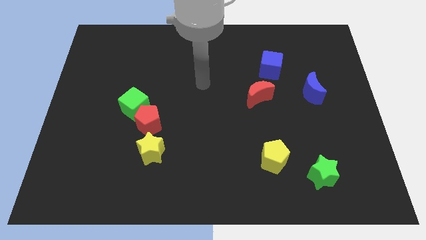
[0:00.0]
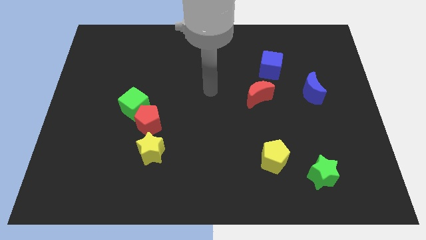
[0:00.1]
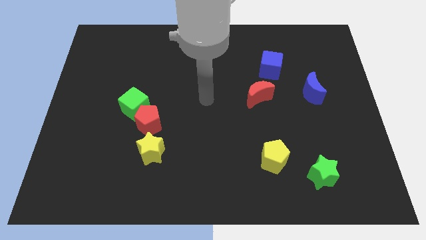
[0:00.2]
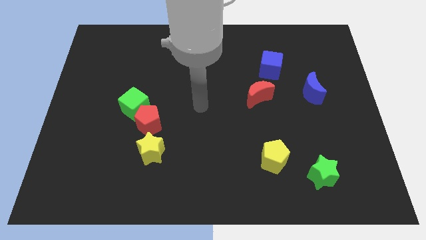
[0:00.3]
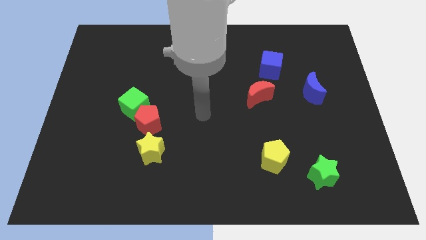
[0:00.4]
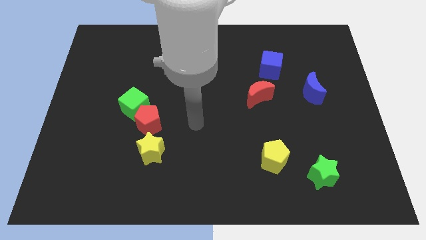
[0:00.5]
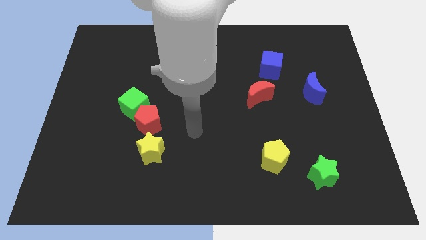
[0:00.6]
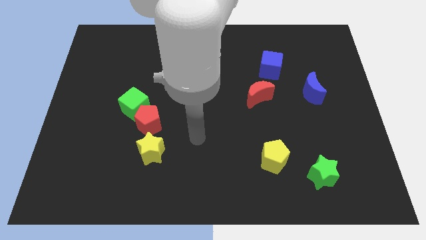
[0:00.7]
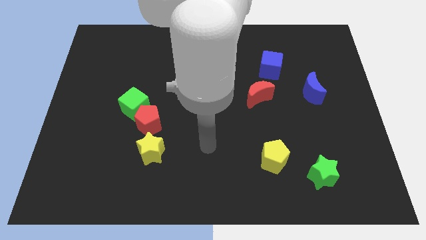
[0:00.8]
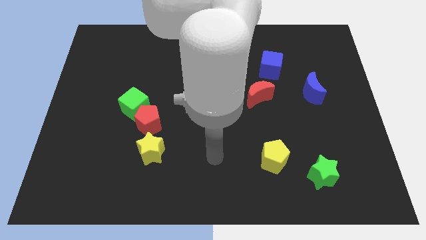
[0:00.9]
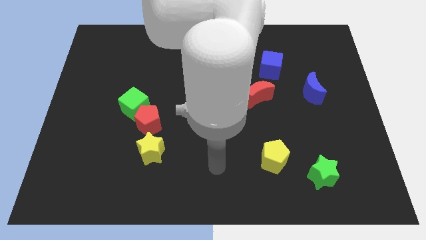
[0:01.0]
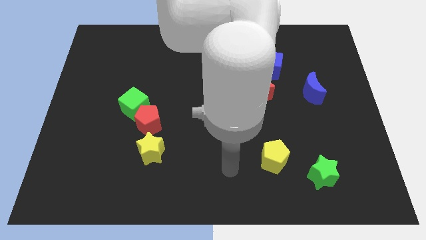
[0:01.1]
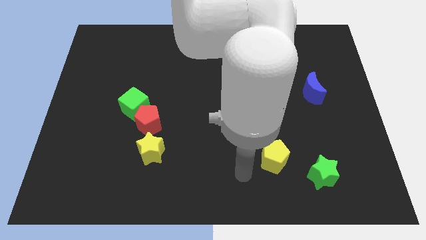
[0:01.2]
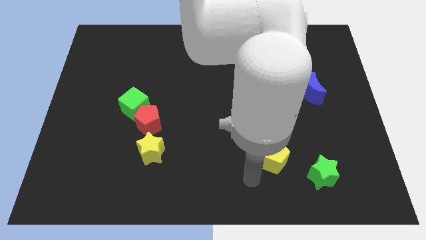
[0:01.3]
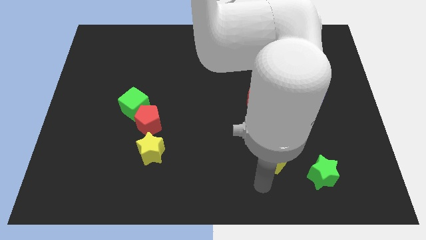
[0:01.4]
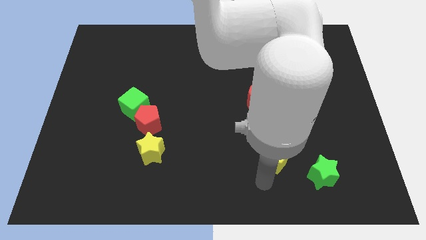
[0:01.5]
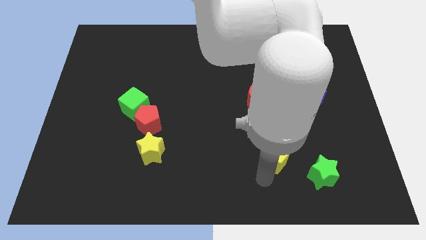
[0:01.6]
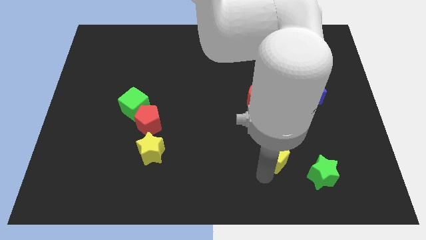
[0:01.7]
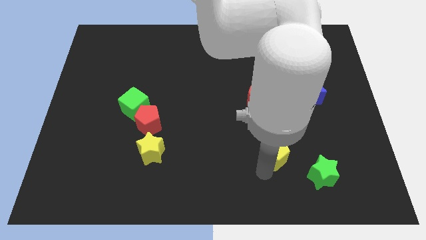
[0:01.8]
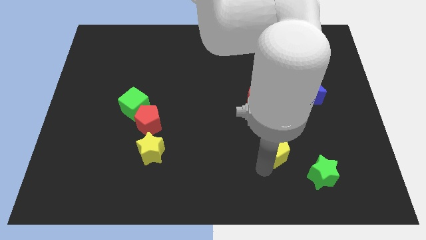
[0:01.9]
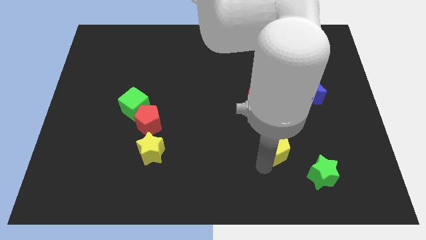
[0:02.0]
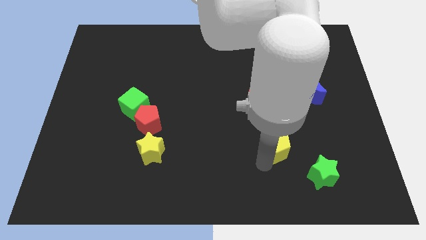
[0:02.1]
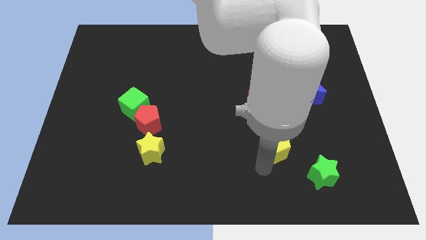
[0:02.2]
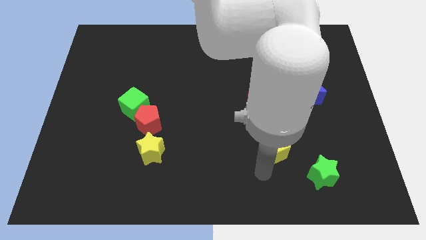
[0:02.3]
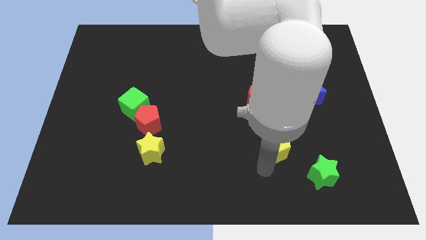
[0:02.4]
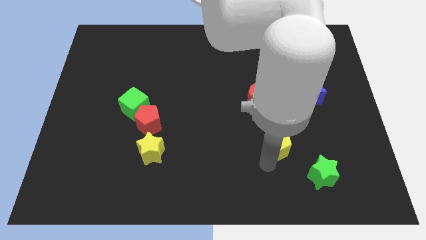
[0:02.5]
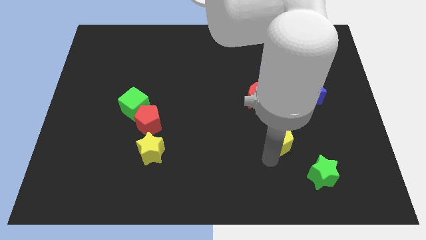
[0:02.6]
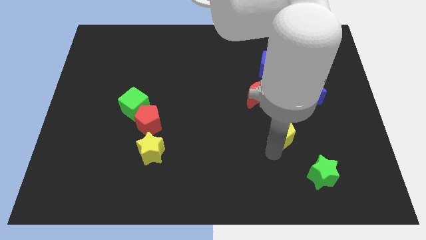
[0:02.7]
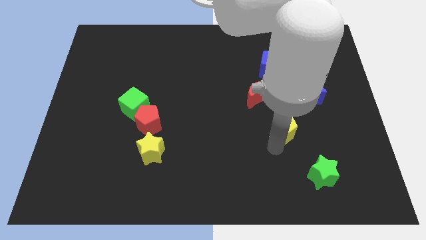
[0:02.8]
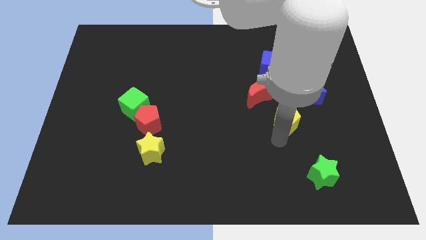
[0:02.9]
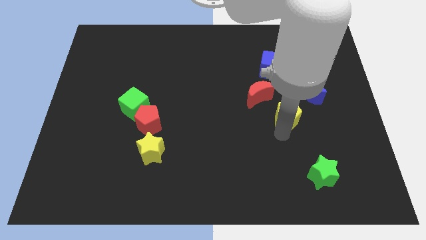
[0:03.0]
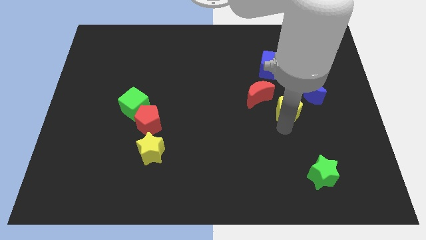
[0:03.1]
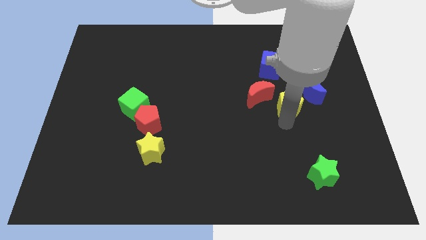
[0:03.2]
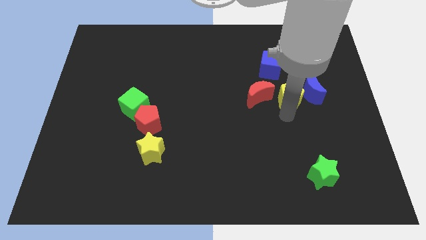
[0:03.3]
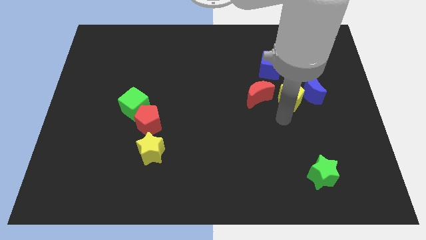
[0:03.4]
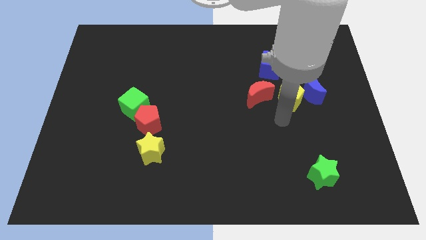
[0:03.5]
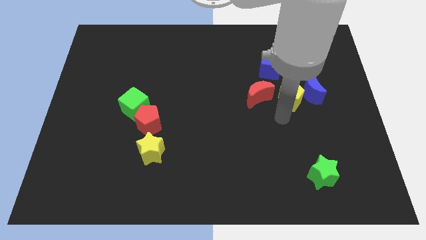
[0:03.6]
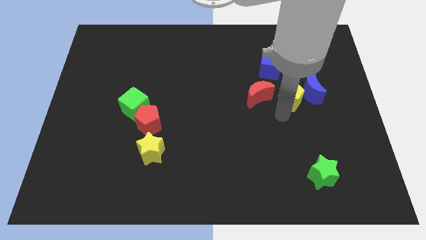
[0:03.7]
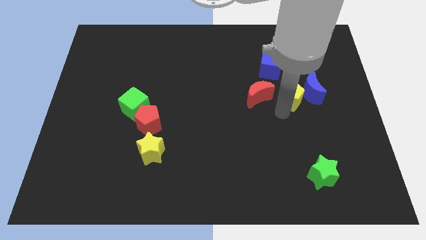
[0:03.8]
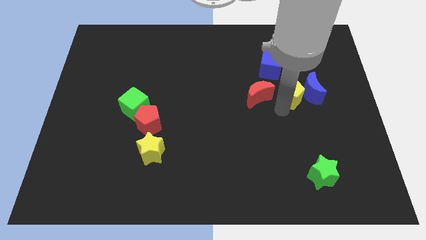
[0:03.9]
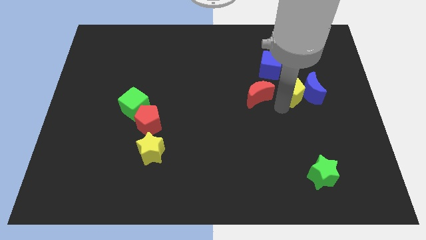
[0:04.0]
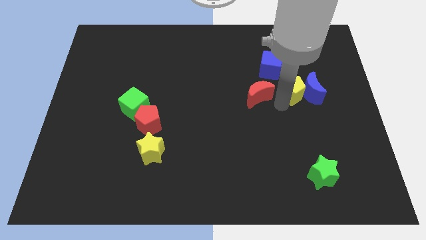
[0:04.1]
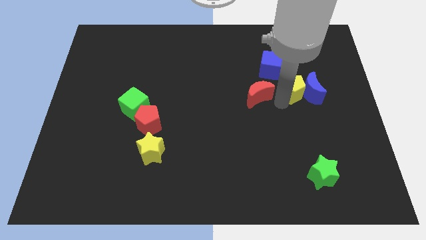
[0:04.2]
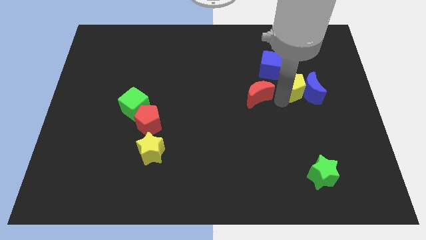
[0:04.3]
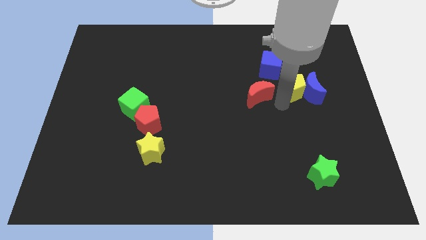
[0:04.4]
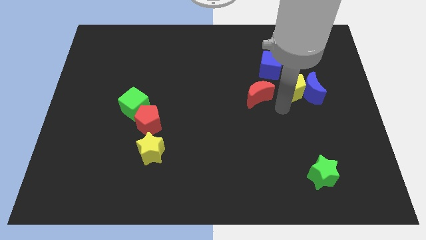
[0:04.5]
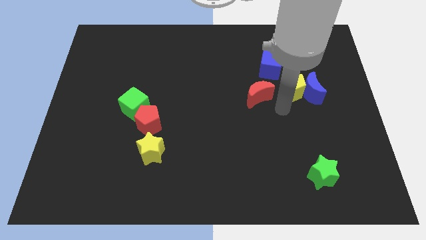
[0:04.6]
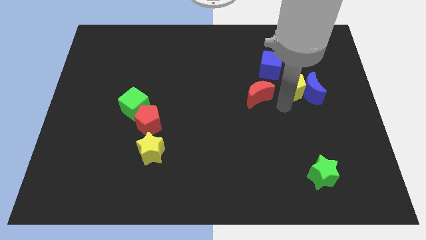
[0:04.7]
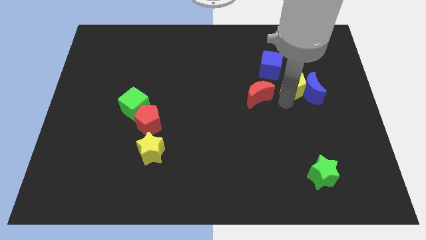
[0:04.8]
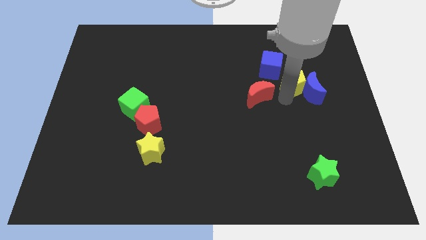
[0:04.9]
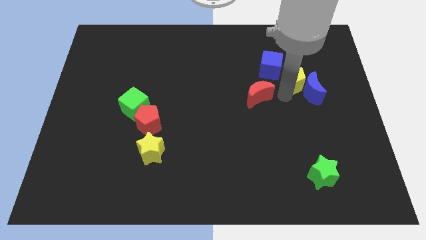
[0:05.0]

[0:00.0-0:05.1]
slide the yellow pentagon to the right of the blue cube

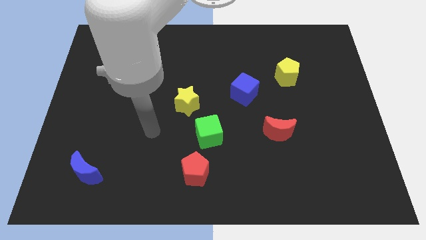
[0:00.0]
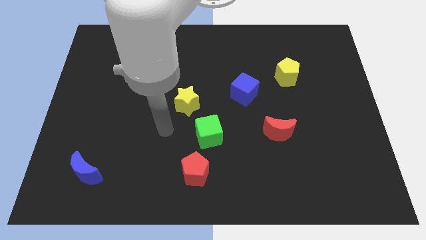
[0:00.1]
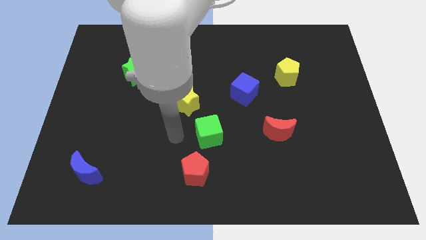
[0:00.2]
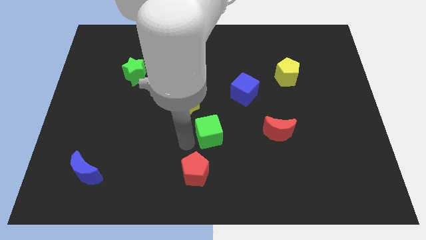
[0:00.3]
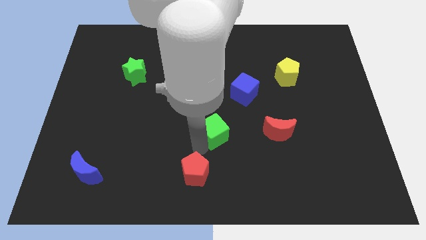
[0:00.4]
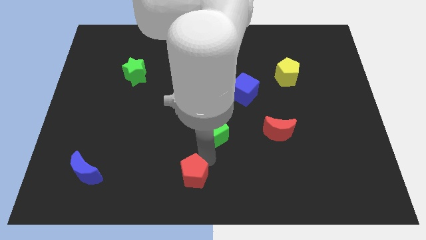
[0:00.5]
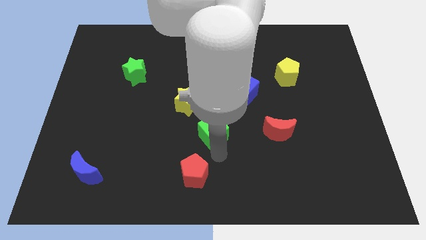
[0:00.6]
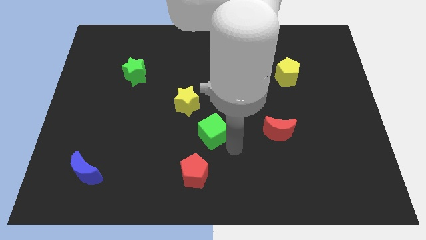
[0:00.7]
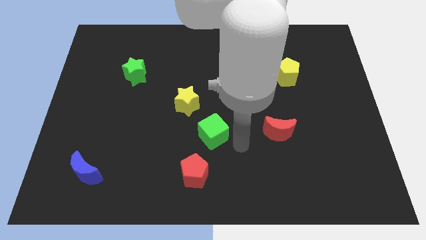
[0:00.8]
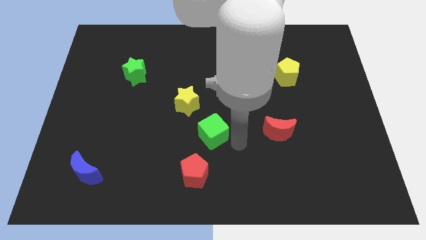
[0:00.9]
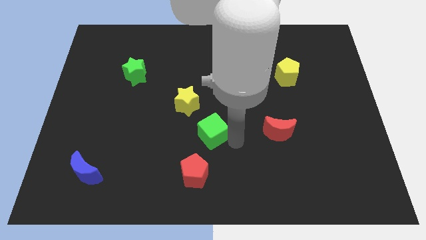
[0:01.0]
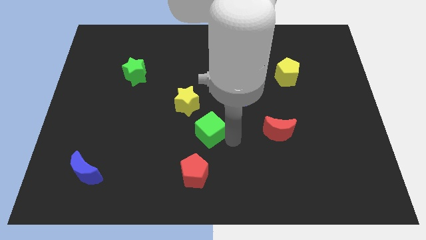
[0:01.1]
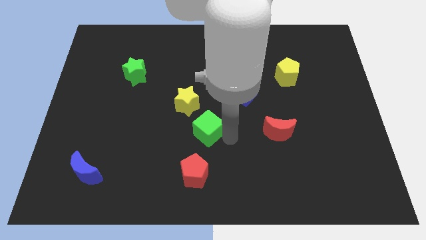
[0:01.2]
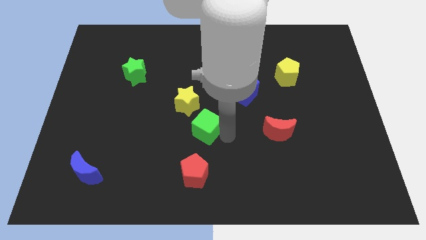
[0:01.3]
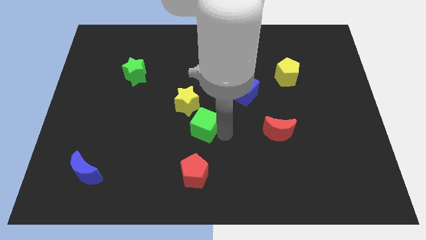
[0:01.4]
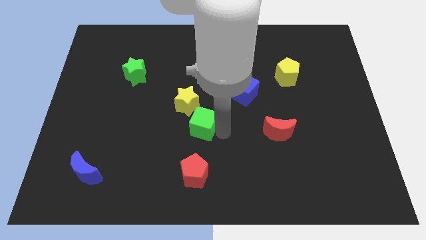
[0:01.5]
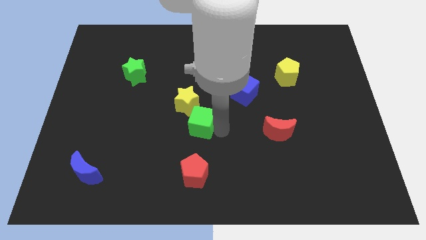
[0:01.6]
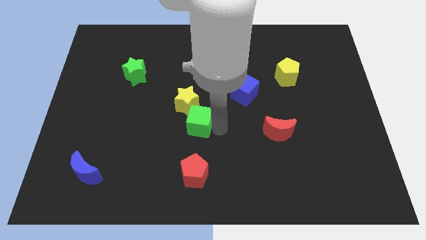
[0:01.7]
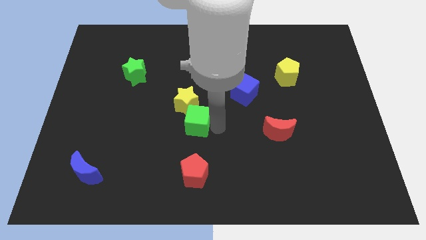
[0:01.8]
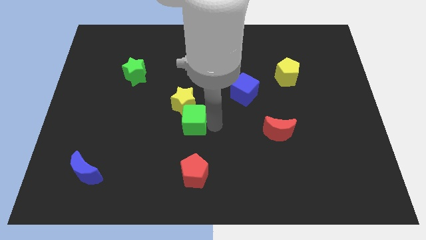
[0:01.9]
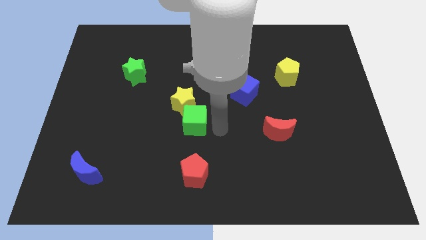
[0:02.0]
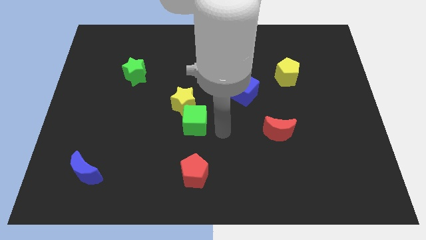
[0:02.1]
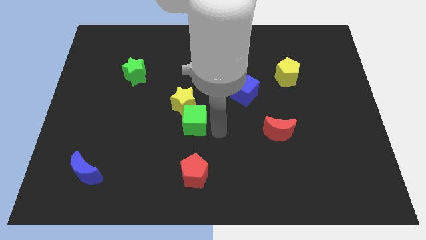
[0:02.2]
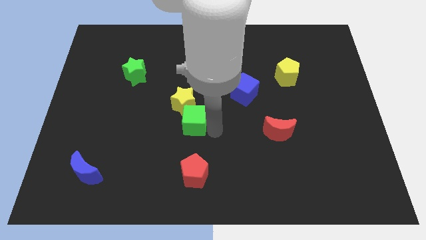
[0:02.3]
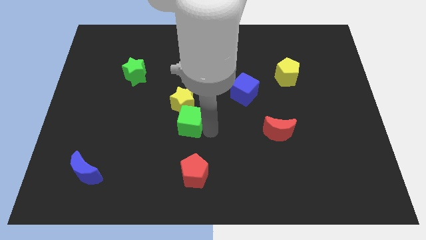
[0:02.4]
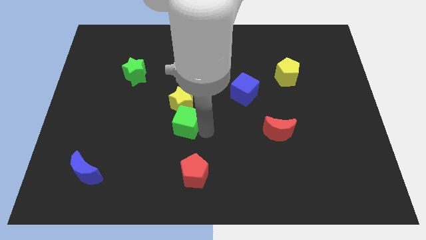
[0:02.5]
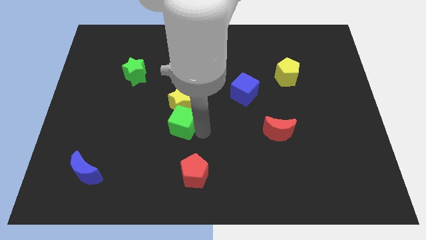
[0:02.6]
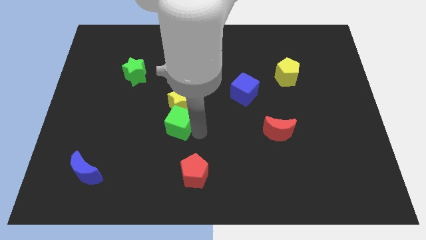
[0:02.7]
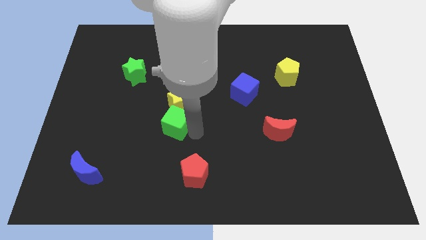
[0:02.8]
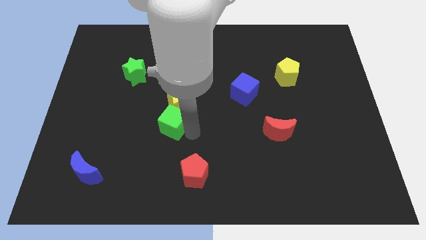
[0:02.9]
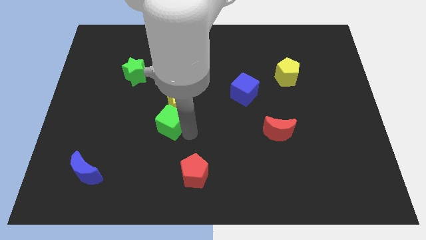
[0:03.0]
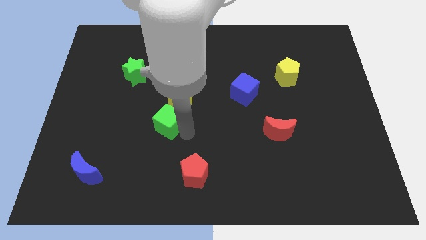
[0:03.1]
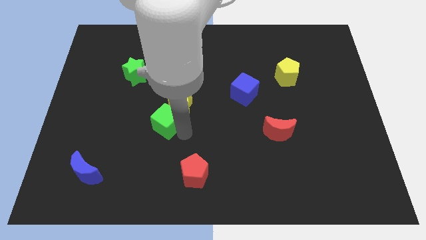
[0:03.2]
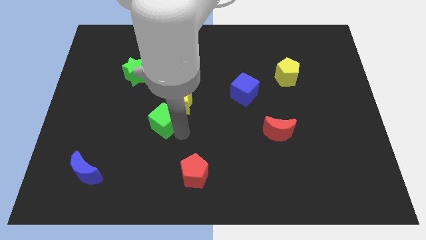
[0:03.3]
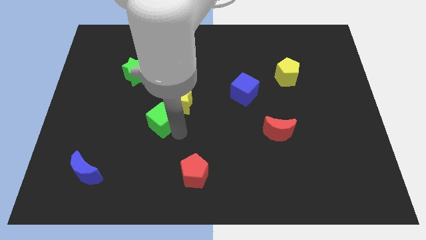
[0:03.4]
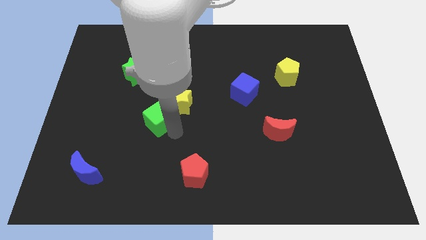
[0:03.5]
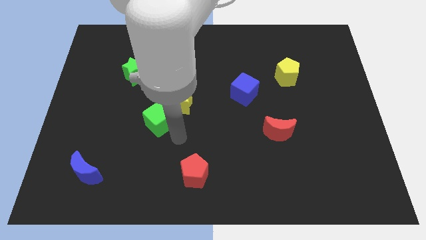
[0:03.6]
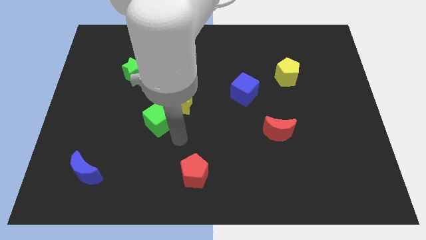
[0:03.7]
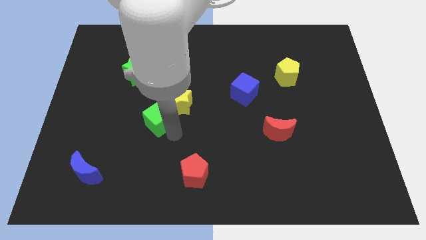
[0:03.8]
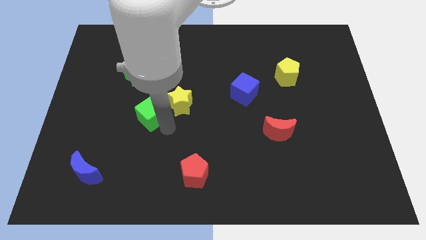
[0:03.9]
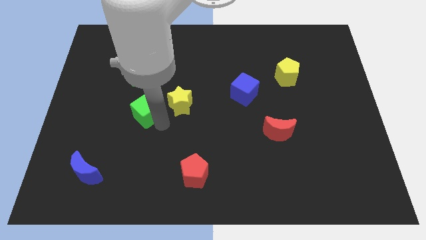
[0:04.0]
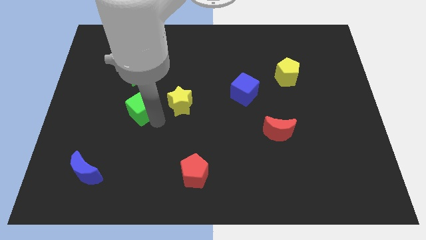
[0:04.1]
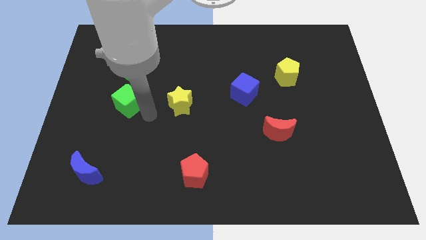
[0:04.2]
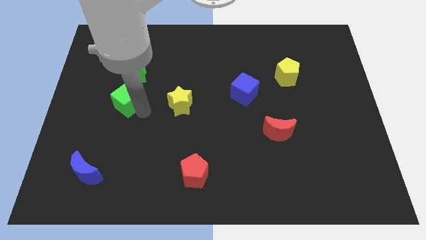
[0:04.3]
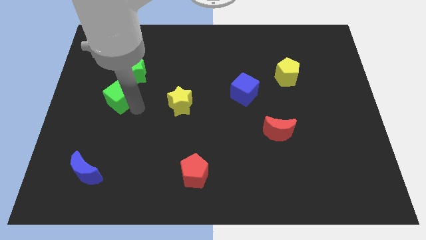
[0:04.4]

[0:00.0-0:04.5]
put the green cube to the bottom left side of the green star
